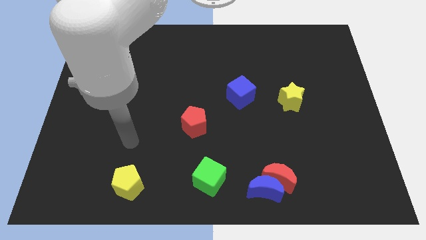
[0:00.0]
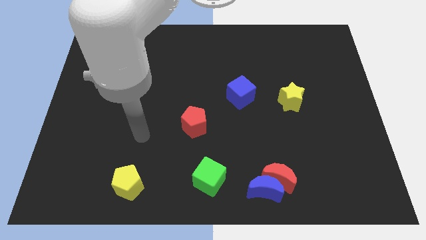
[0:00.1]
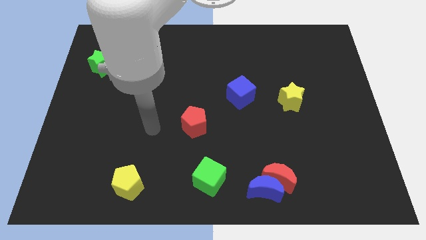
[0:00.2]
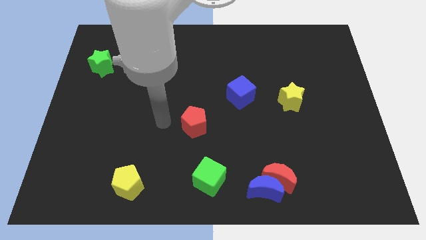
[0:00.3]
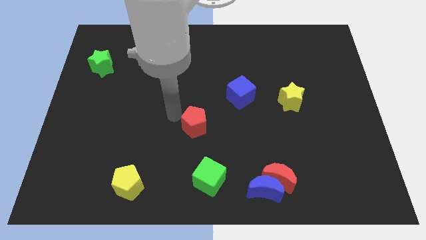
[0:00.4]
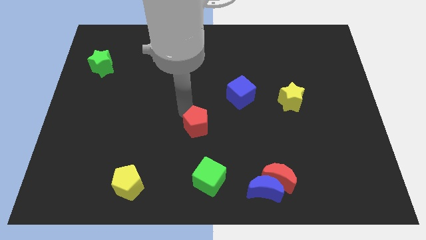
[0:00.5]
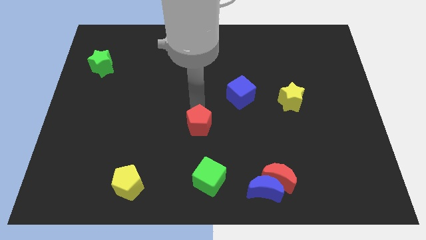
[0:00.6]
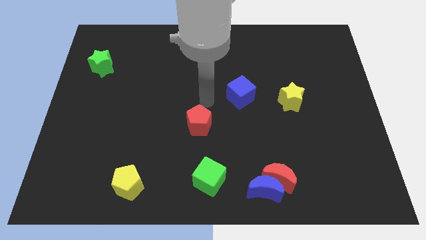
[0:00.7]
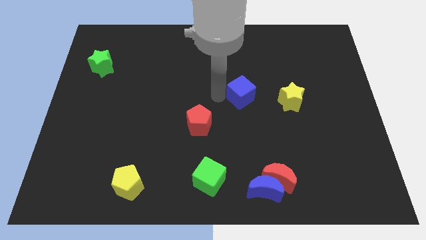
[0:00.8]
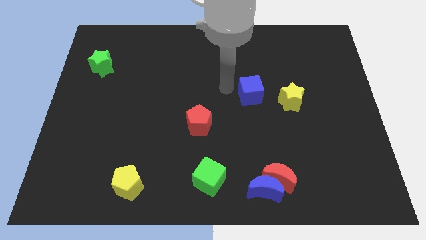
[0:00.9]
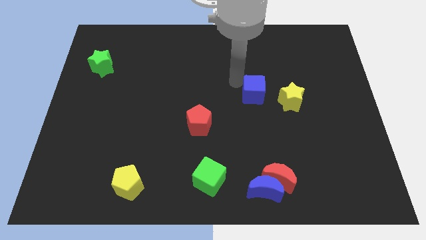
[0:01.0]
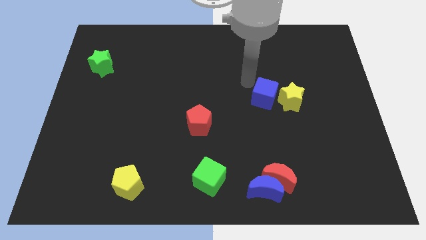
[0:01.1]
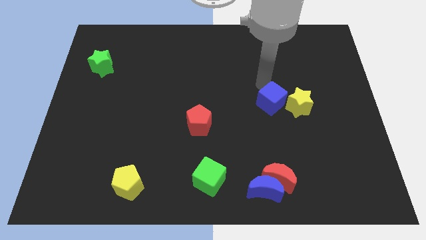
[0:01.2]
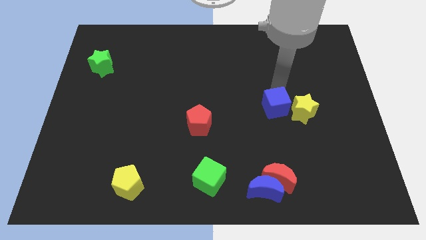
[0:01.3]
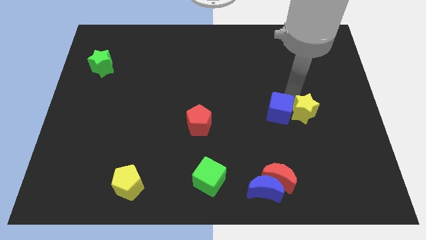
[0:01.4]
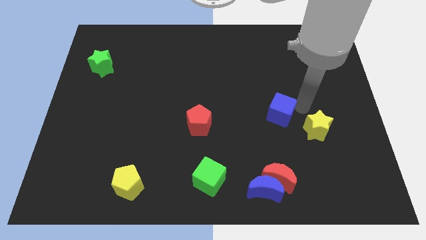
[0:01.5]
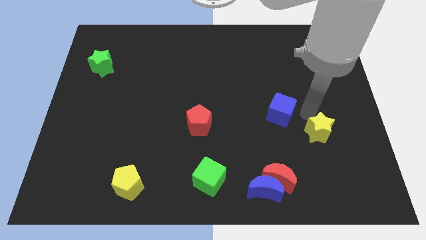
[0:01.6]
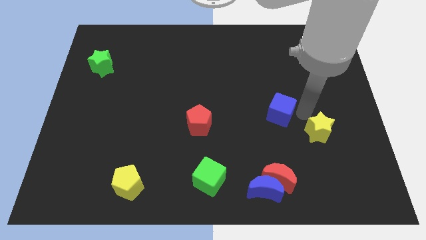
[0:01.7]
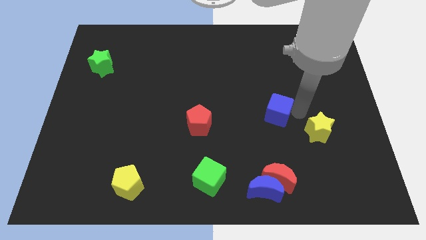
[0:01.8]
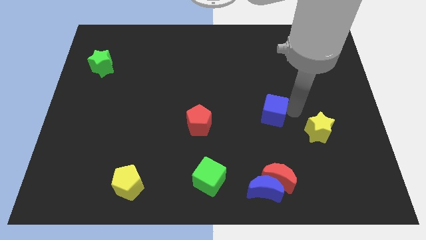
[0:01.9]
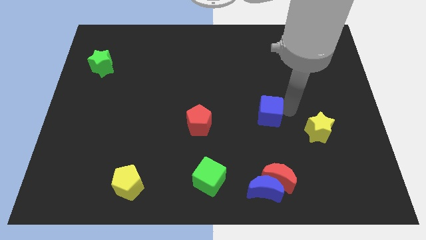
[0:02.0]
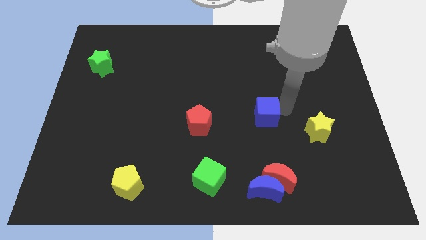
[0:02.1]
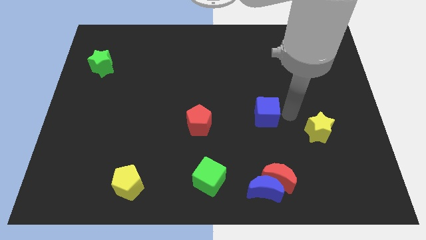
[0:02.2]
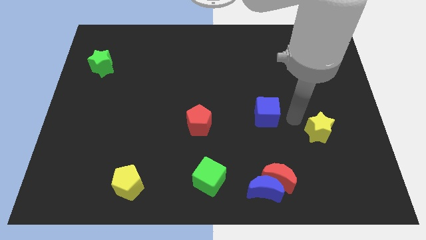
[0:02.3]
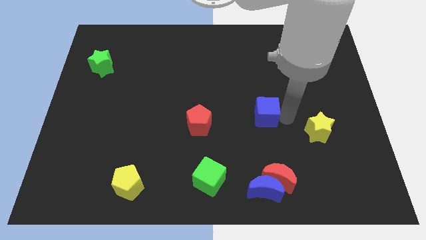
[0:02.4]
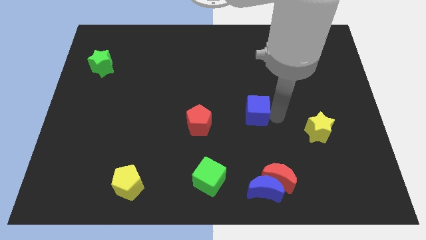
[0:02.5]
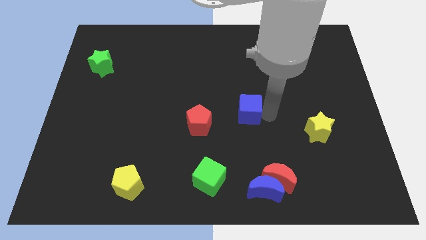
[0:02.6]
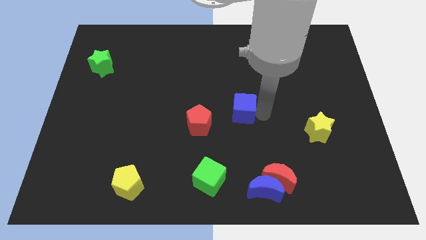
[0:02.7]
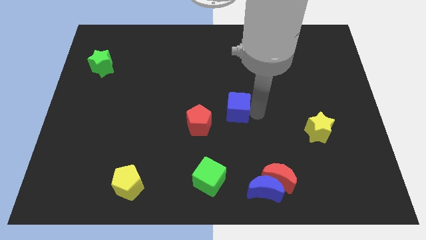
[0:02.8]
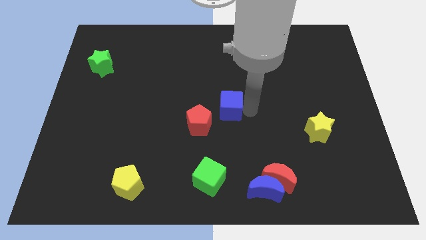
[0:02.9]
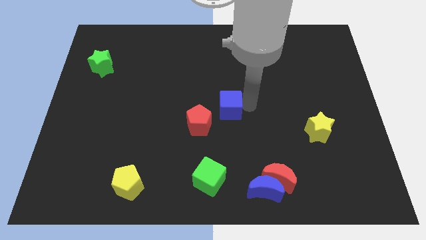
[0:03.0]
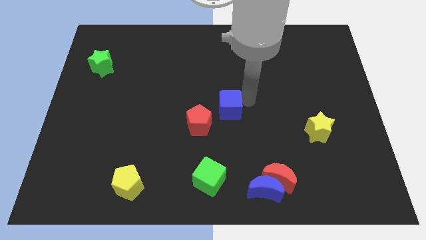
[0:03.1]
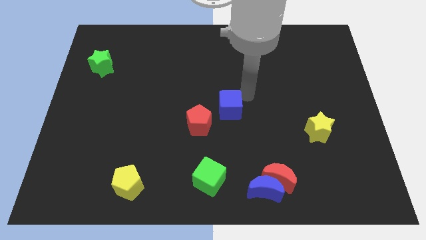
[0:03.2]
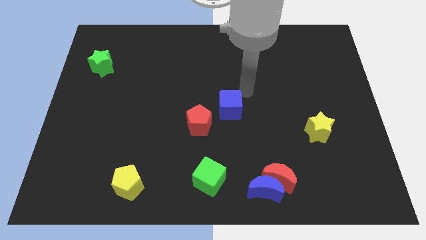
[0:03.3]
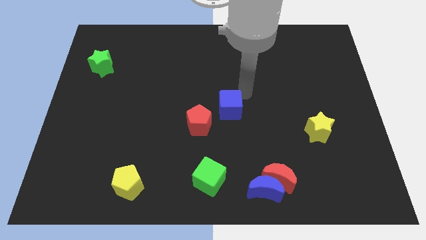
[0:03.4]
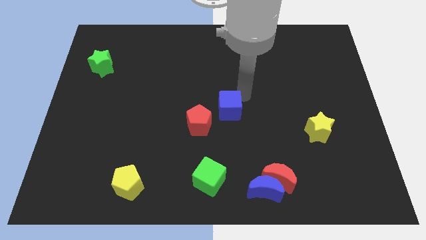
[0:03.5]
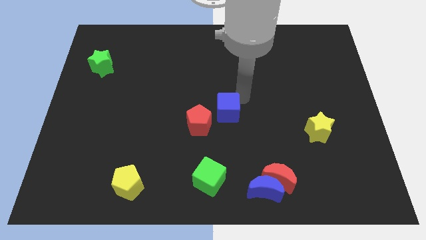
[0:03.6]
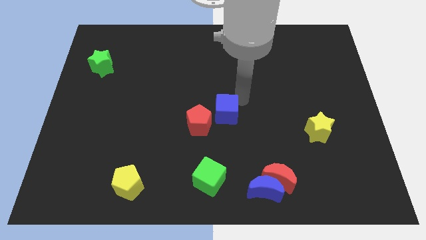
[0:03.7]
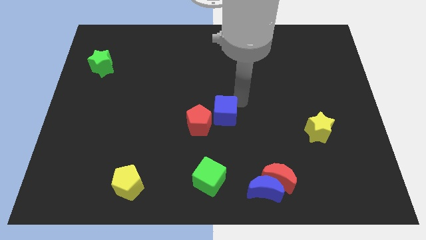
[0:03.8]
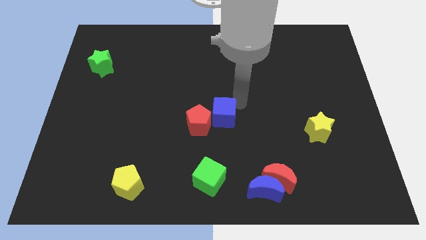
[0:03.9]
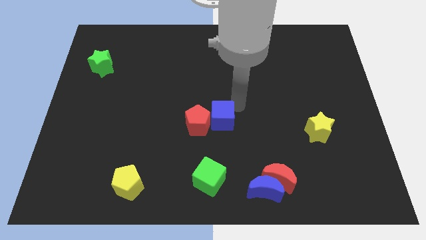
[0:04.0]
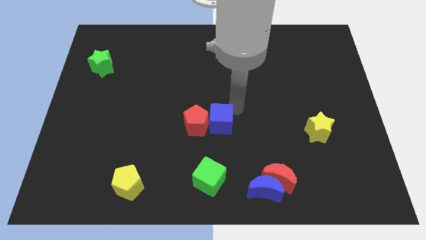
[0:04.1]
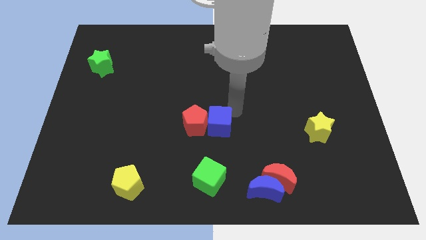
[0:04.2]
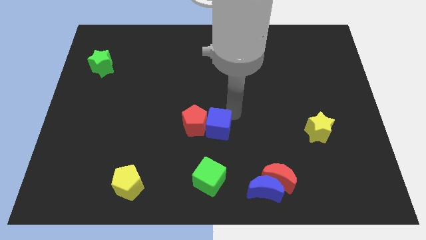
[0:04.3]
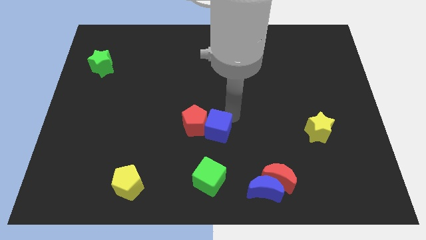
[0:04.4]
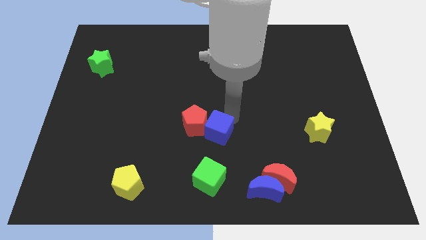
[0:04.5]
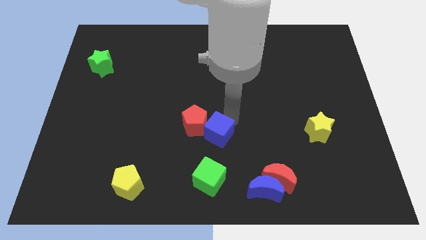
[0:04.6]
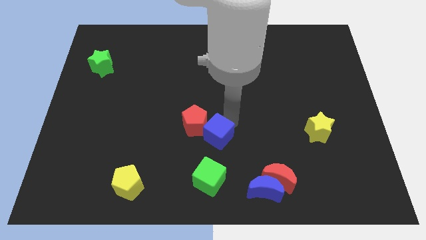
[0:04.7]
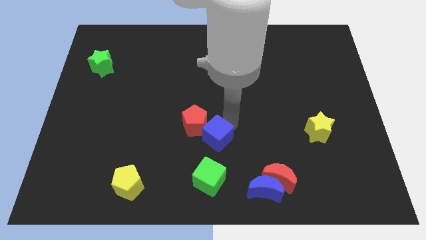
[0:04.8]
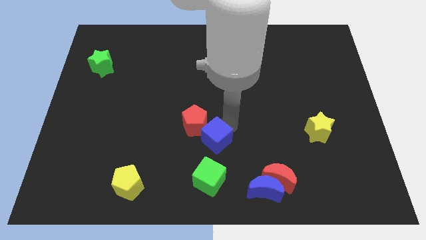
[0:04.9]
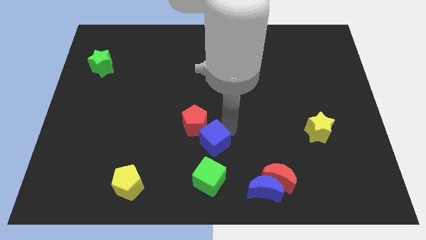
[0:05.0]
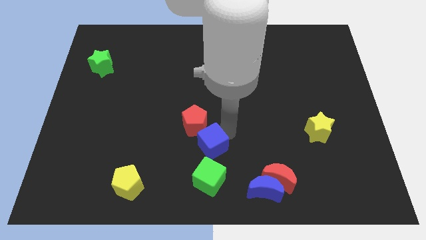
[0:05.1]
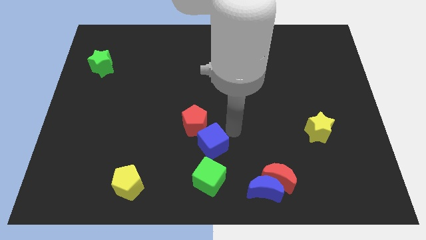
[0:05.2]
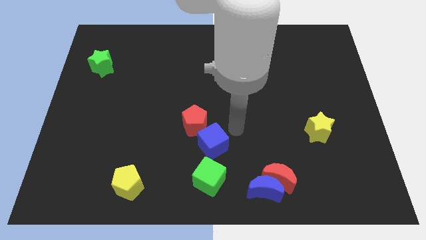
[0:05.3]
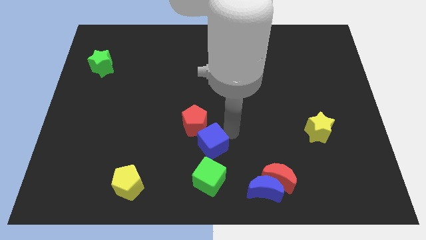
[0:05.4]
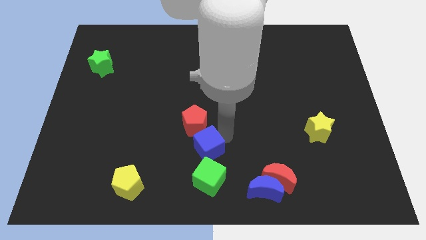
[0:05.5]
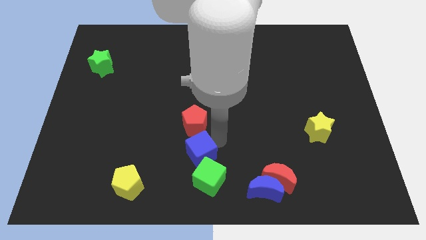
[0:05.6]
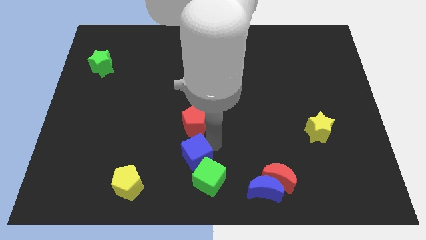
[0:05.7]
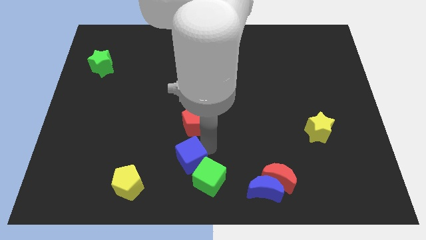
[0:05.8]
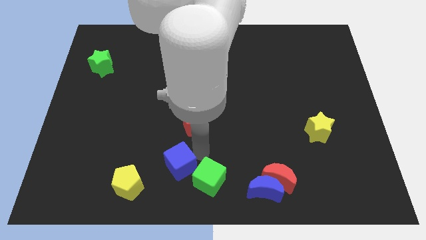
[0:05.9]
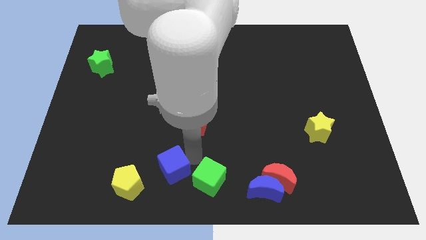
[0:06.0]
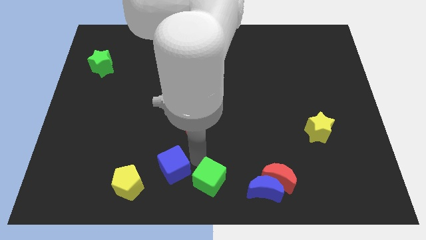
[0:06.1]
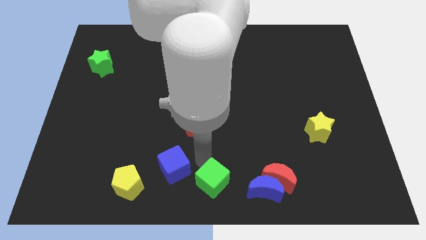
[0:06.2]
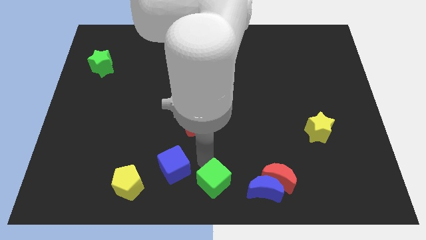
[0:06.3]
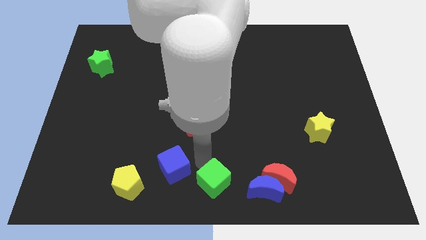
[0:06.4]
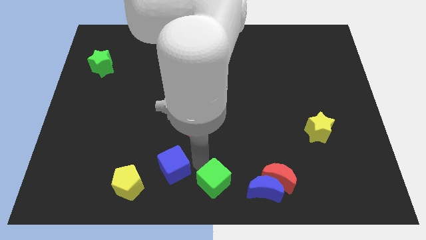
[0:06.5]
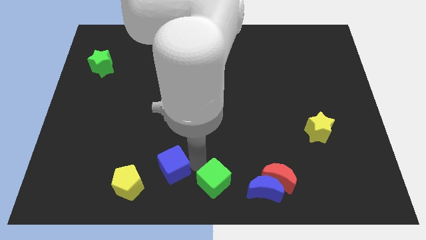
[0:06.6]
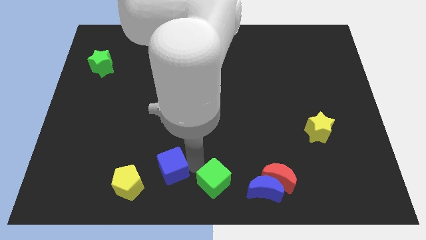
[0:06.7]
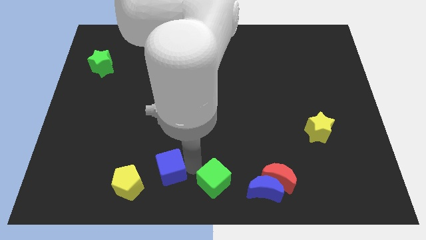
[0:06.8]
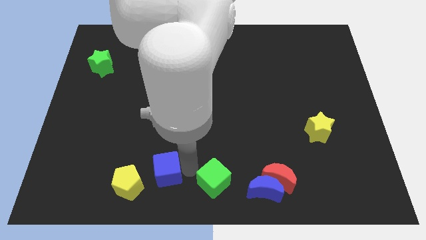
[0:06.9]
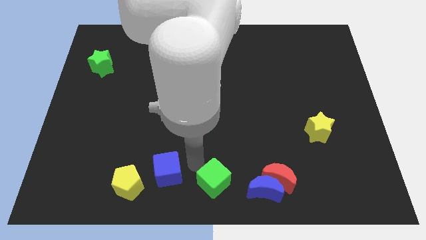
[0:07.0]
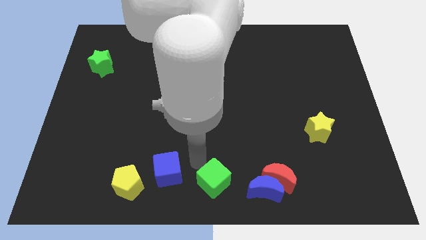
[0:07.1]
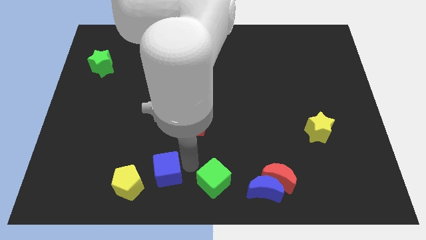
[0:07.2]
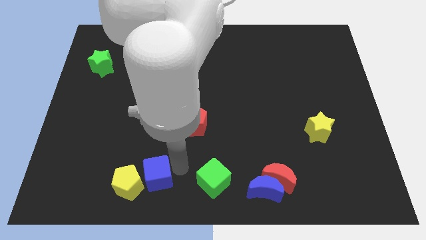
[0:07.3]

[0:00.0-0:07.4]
slide the blue cube close to the yellow pentagon
